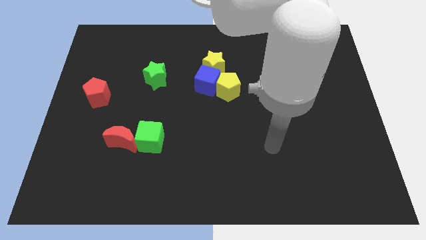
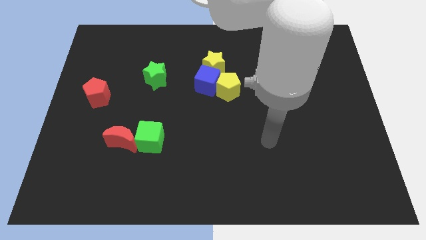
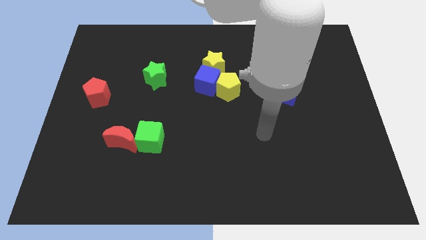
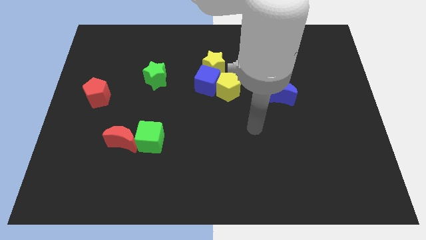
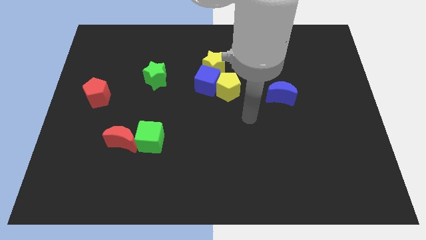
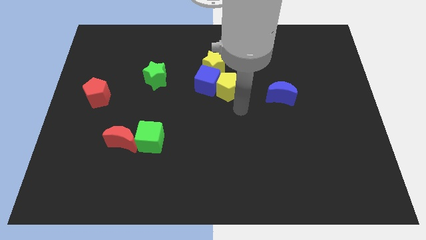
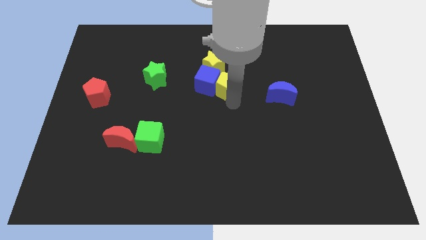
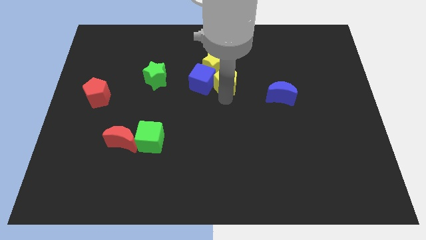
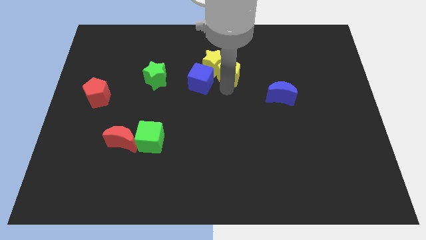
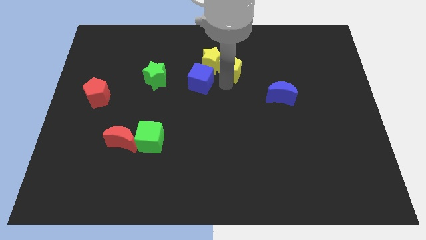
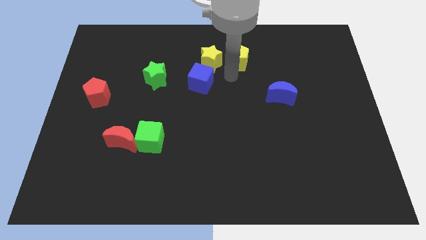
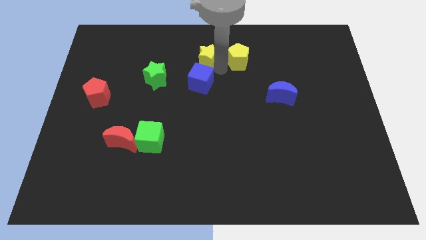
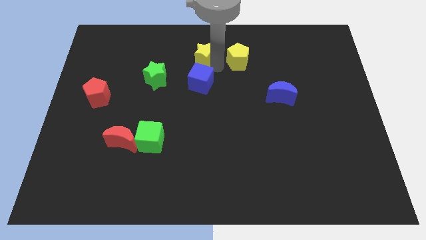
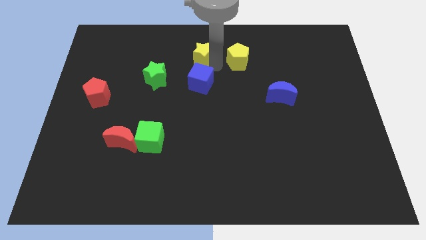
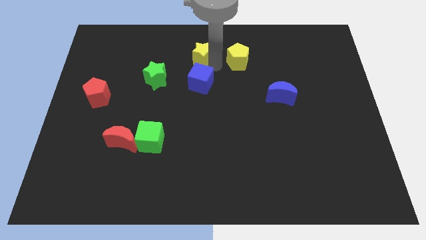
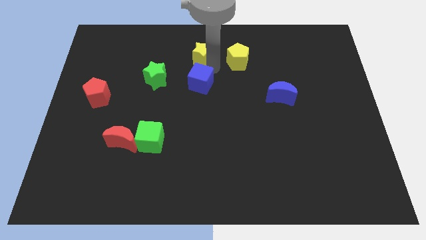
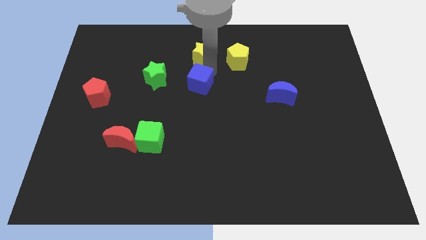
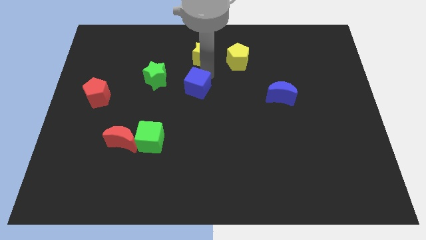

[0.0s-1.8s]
move the blue cube away from the yellow pentagon and yellow star

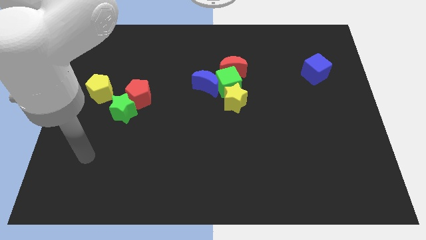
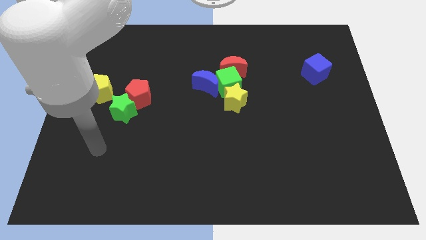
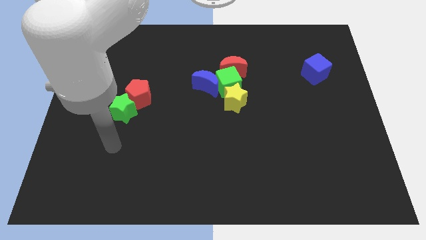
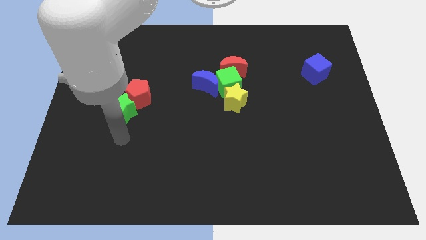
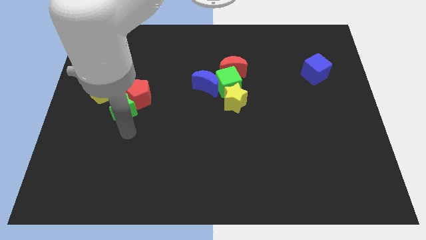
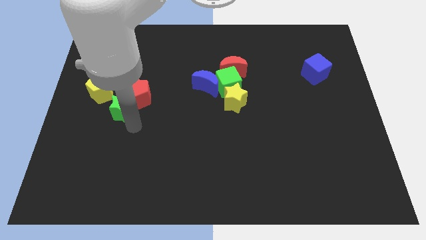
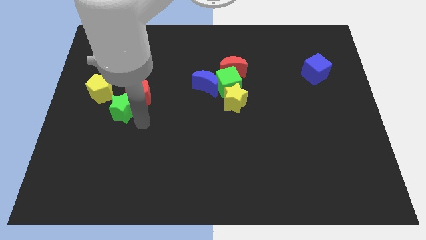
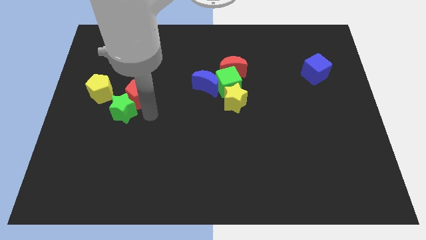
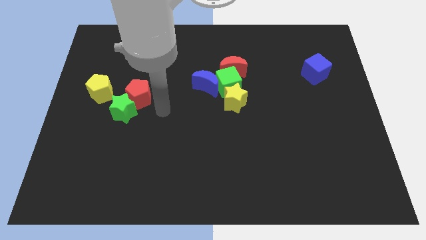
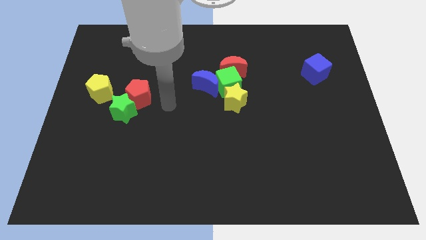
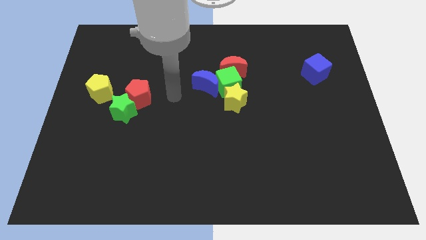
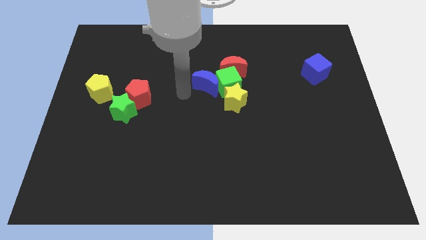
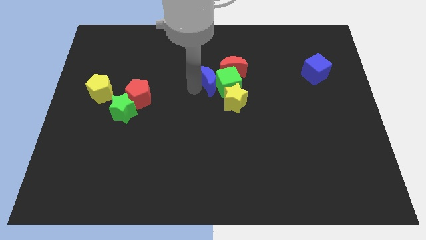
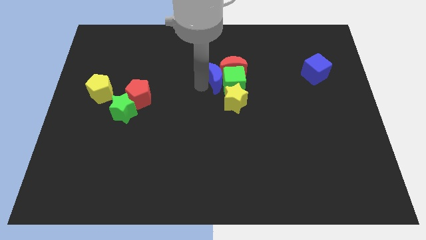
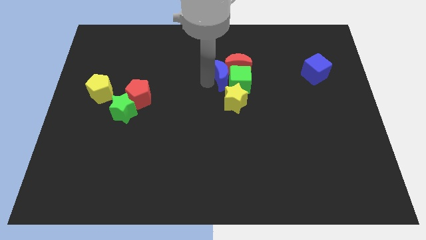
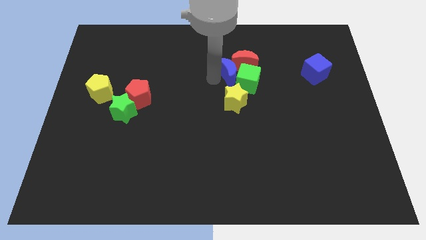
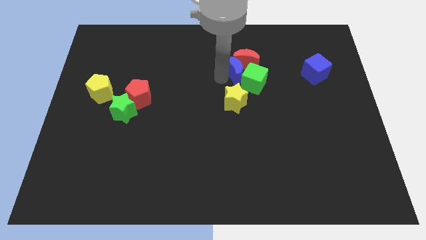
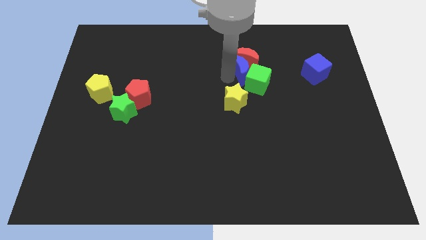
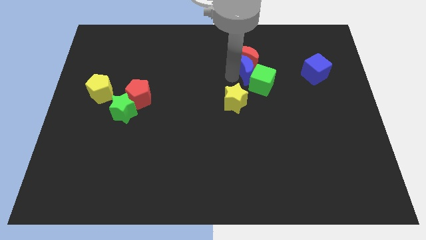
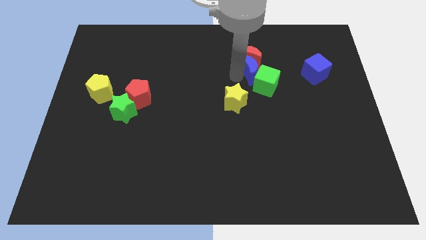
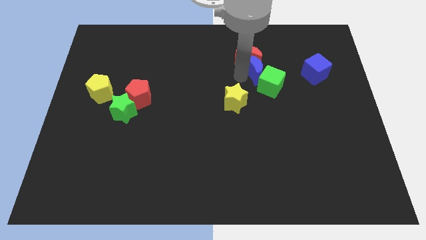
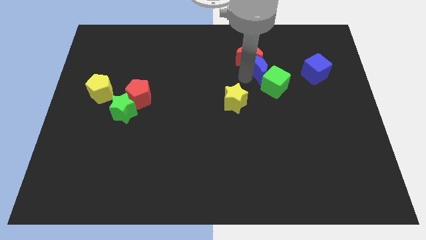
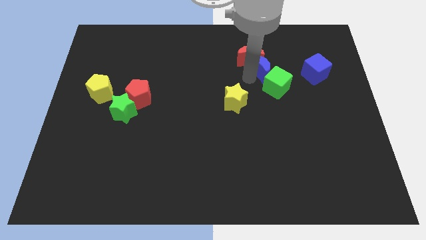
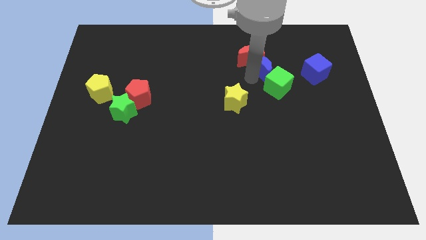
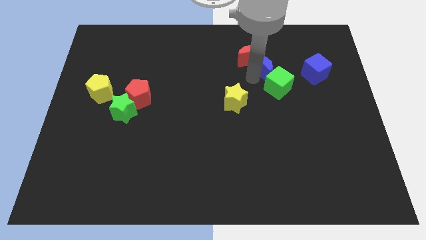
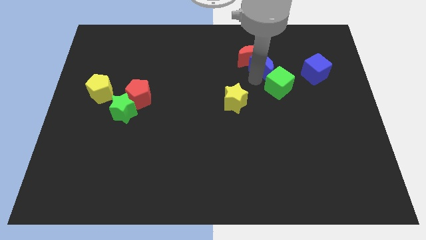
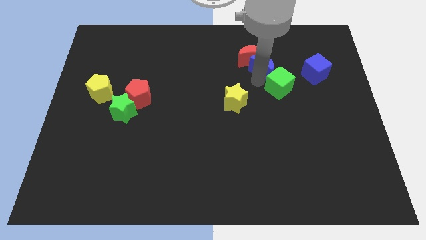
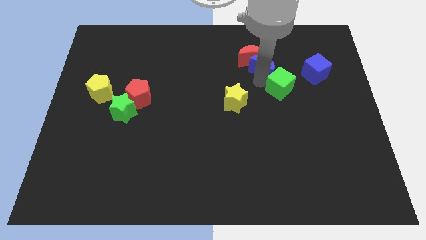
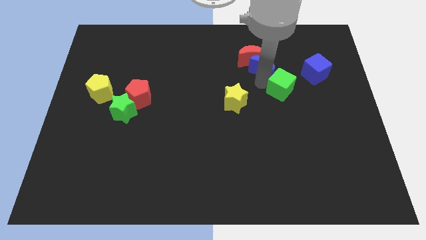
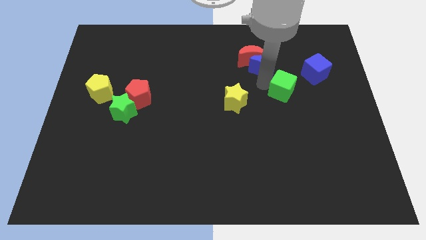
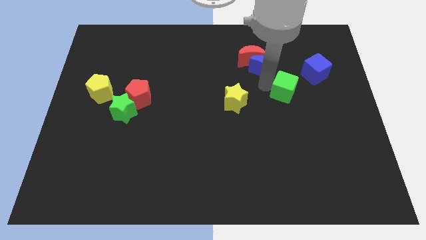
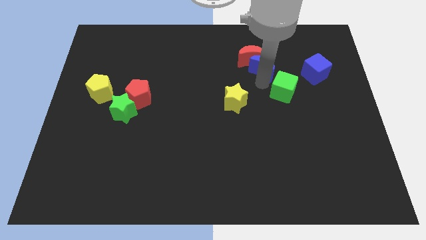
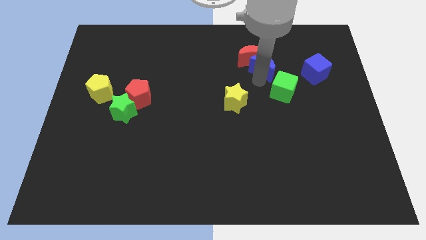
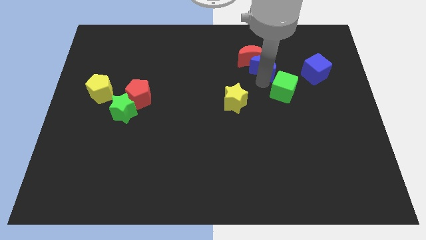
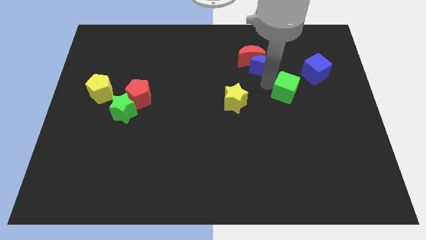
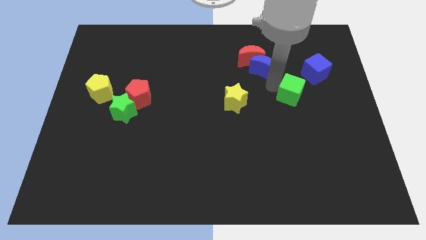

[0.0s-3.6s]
separate the green cube from the group of blocks

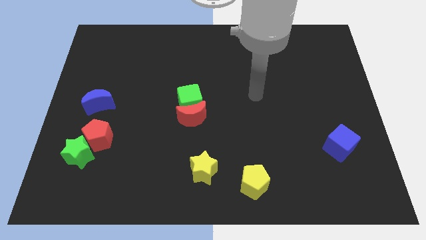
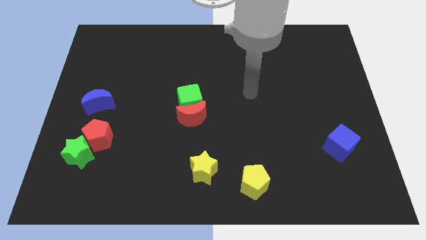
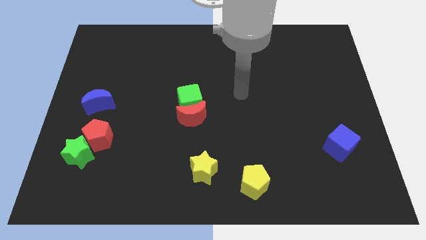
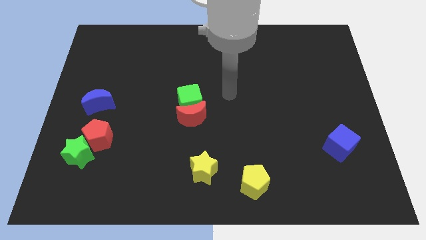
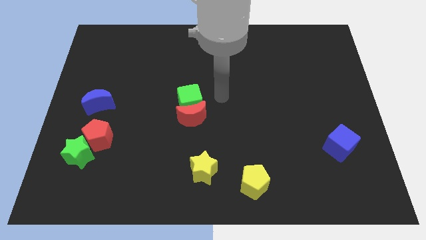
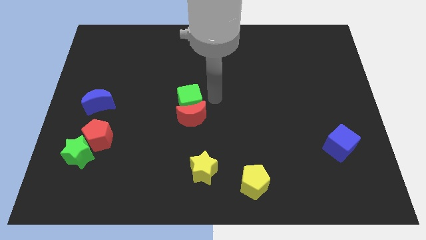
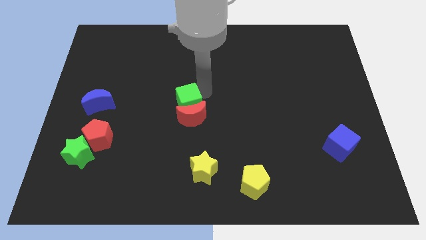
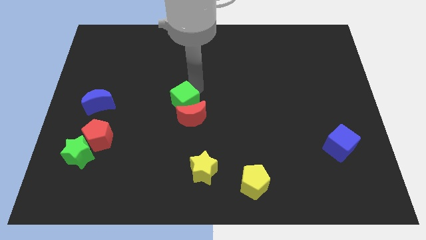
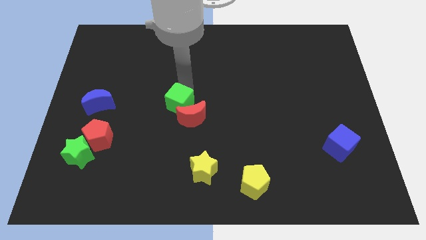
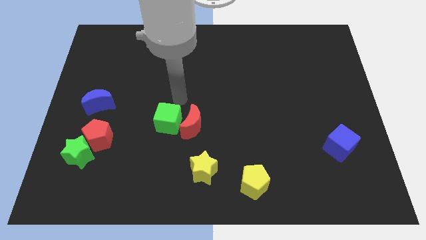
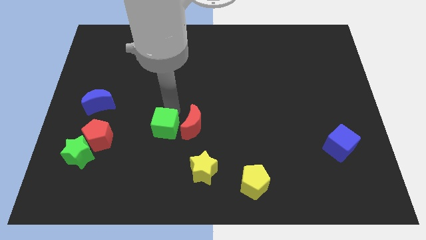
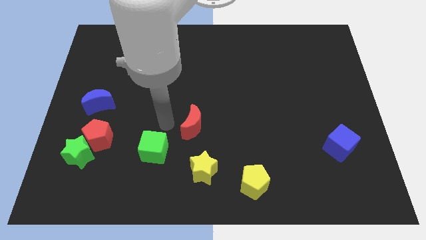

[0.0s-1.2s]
move the red moon away from the green cube

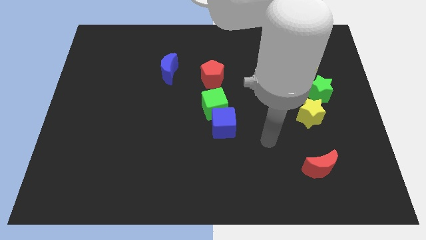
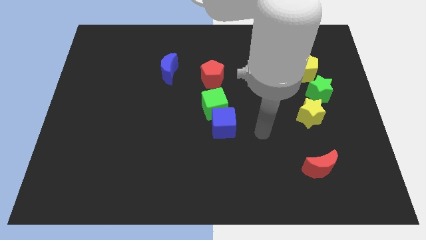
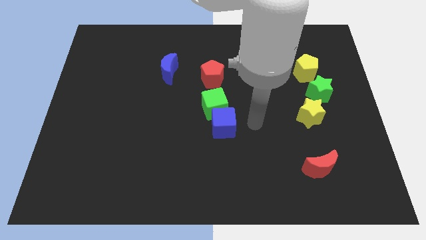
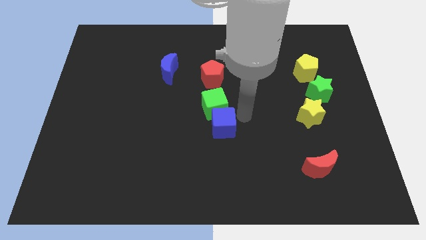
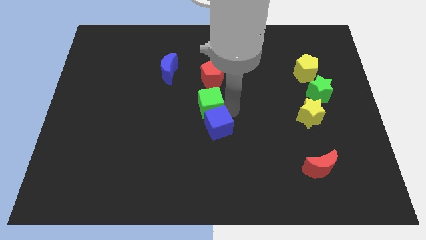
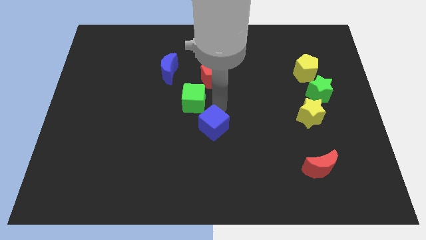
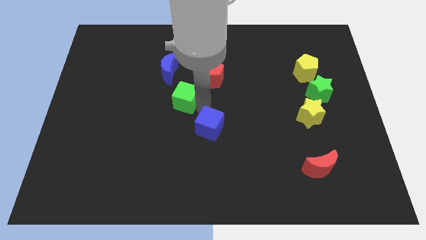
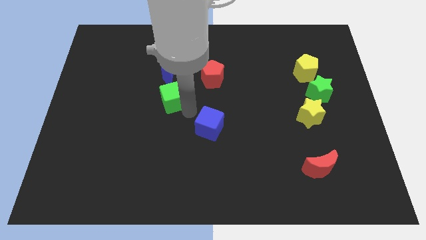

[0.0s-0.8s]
separate the blue cube from the green cube

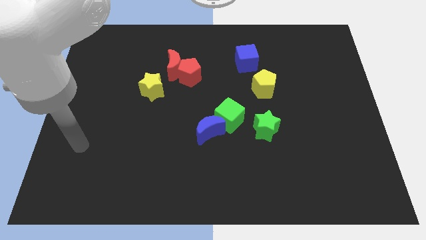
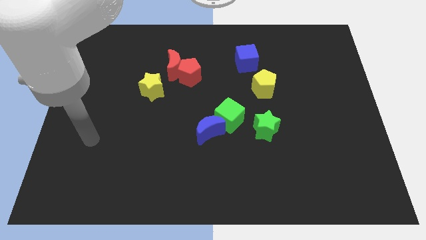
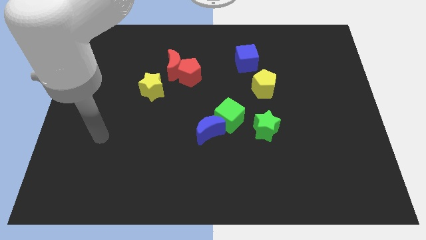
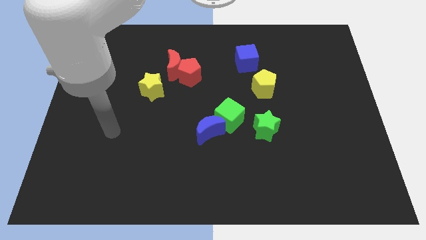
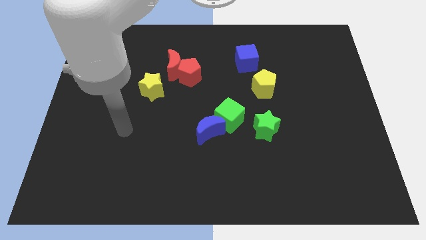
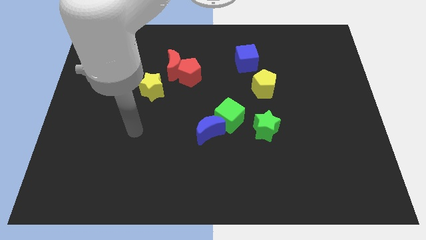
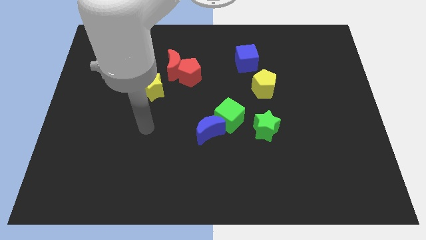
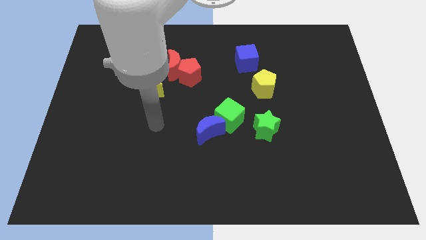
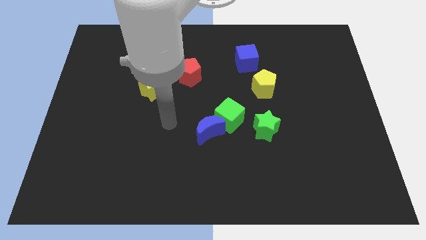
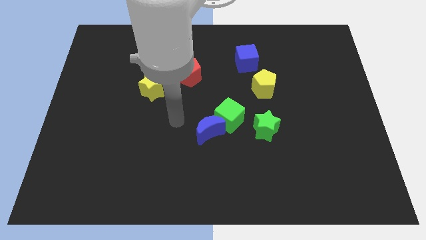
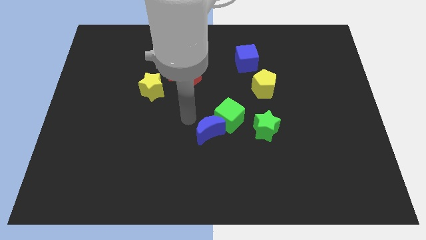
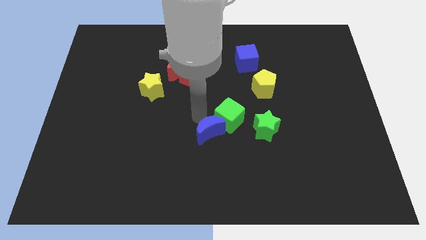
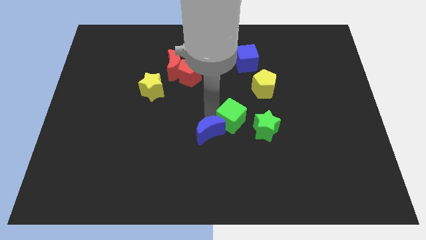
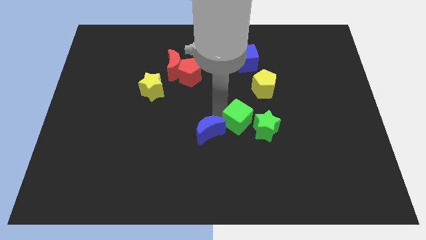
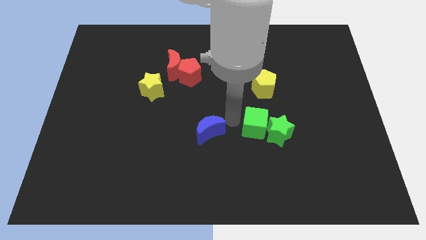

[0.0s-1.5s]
move the blue moon away from the green cube

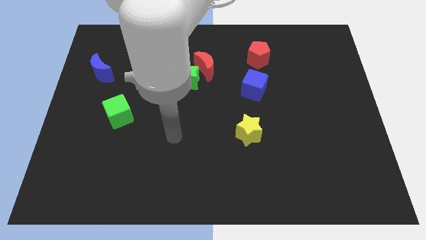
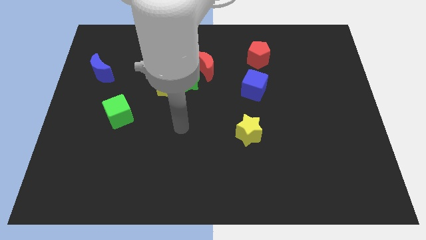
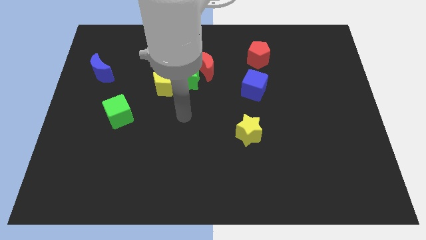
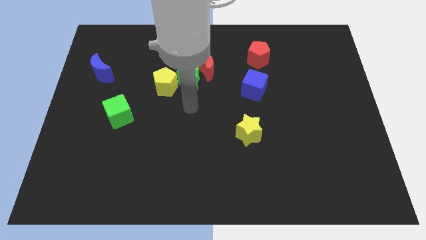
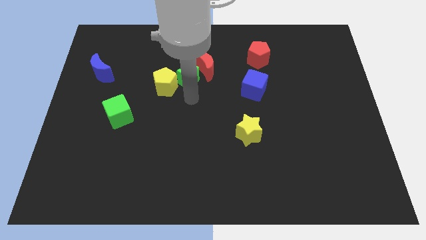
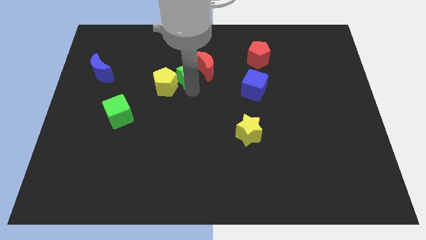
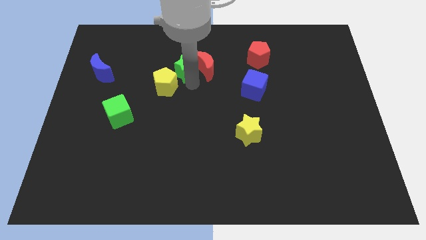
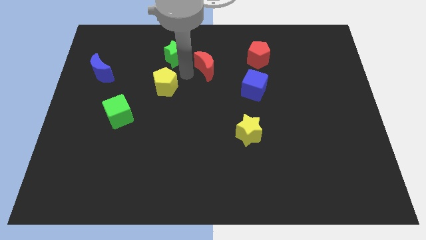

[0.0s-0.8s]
move the yellow pentagon away from the green star
